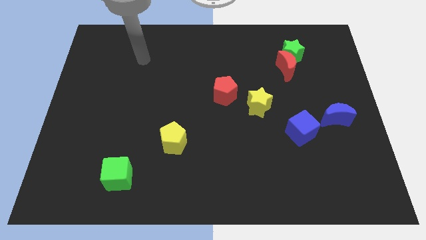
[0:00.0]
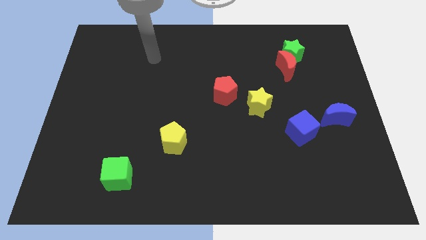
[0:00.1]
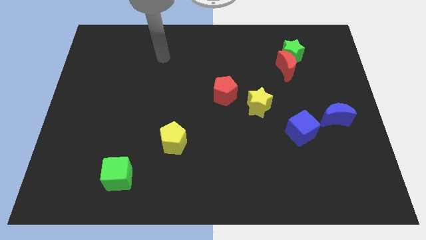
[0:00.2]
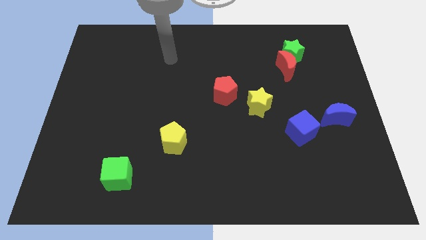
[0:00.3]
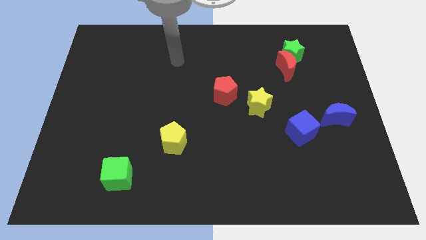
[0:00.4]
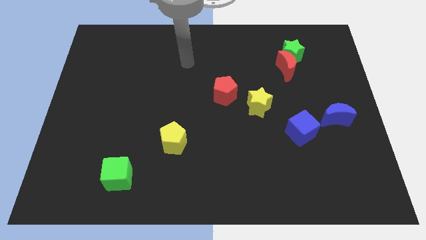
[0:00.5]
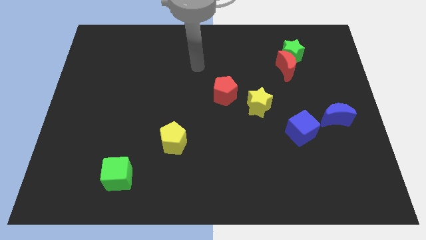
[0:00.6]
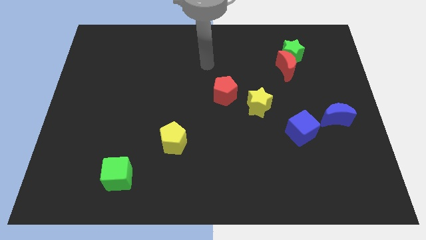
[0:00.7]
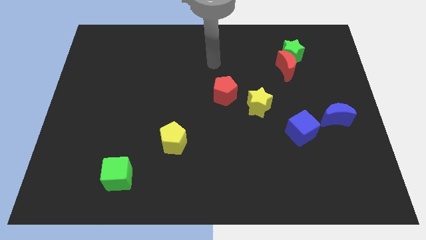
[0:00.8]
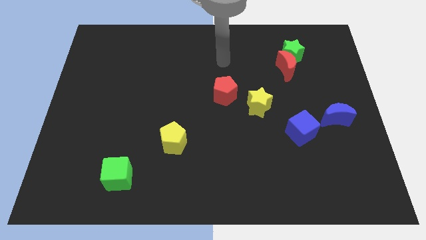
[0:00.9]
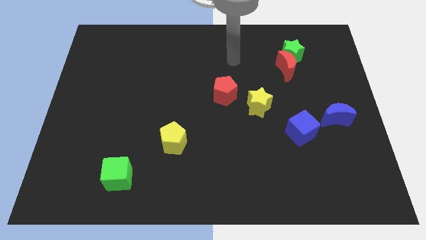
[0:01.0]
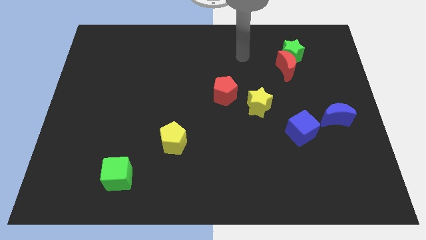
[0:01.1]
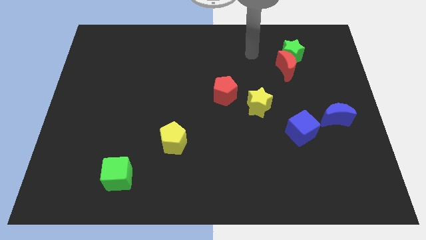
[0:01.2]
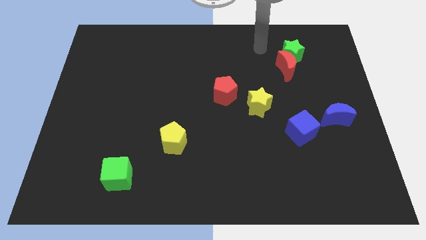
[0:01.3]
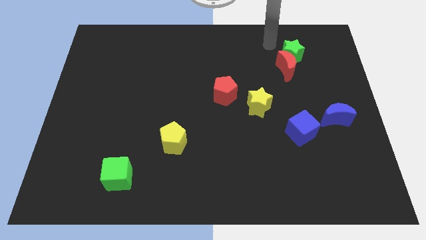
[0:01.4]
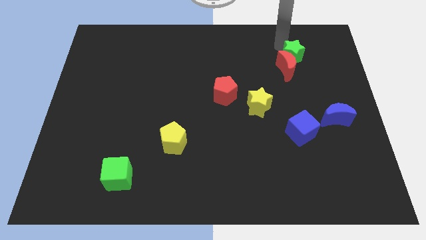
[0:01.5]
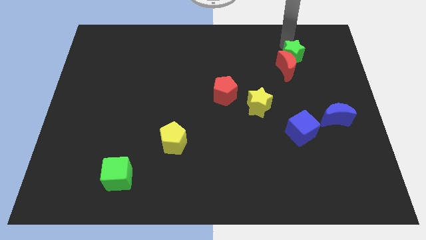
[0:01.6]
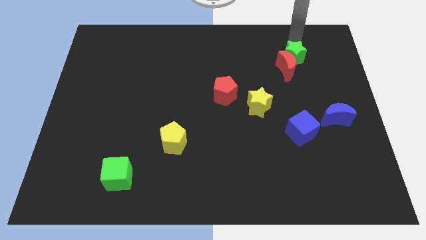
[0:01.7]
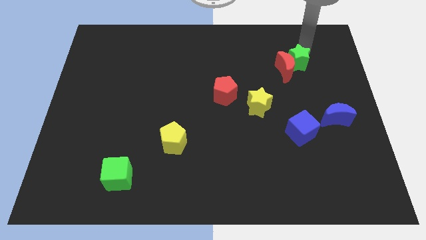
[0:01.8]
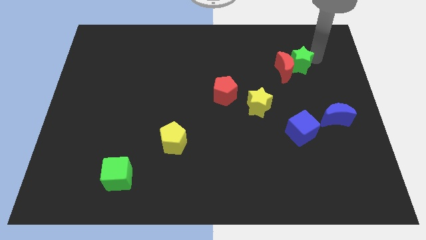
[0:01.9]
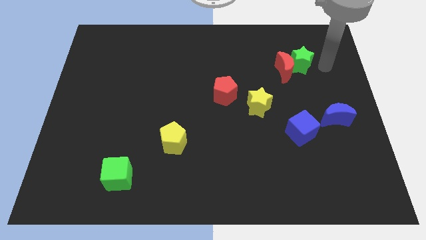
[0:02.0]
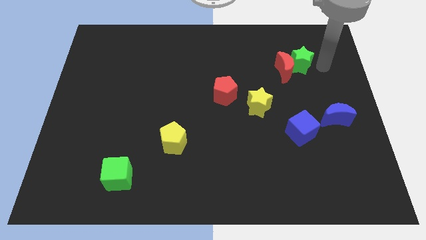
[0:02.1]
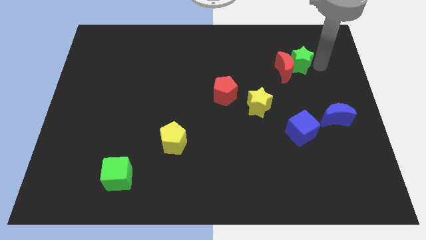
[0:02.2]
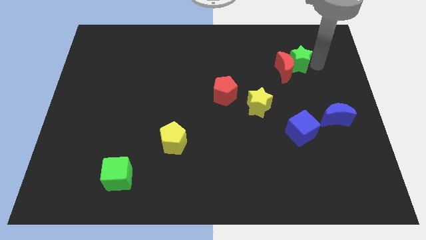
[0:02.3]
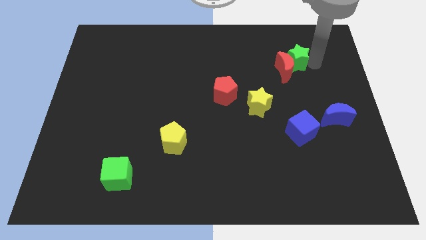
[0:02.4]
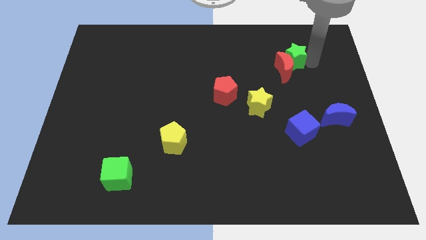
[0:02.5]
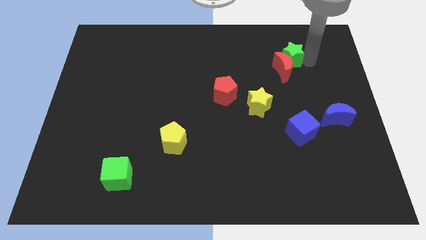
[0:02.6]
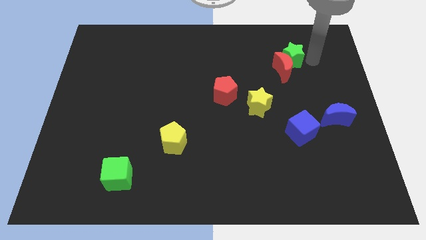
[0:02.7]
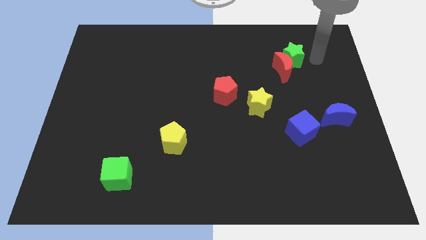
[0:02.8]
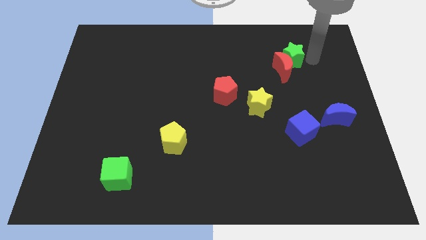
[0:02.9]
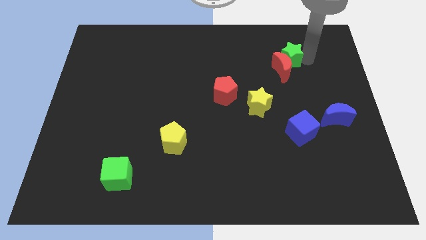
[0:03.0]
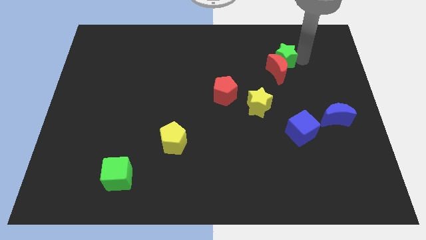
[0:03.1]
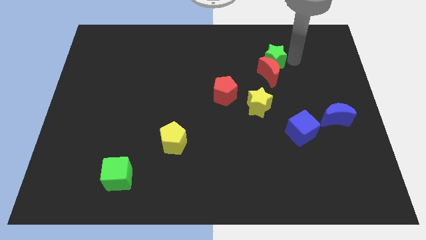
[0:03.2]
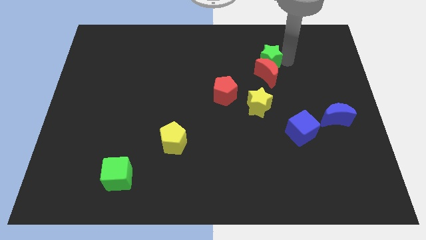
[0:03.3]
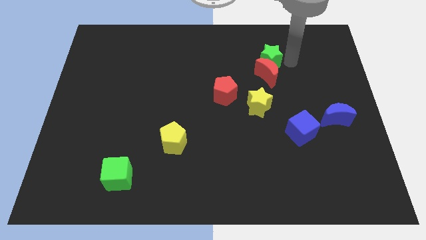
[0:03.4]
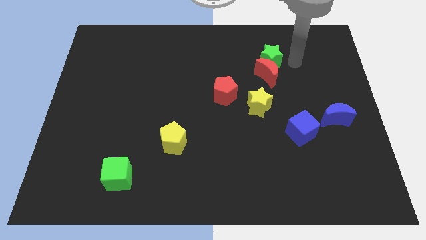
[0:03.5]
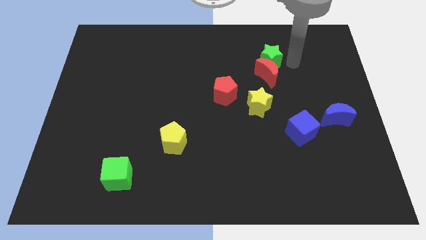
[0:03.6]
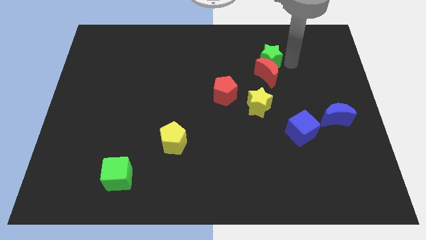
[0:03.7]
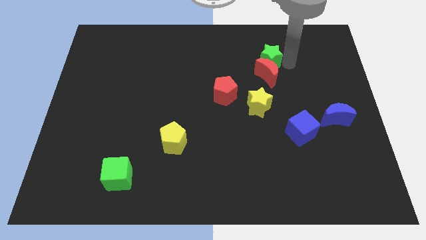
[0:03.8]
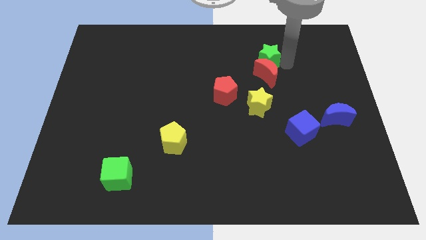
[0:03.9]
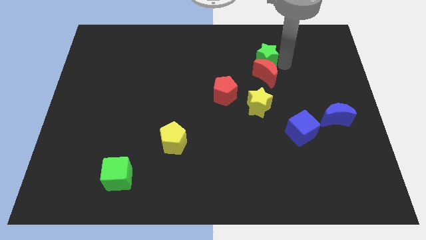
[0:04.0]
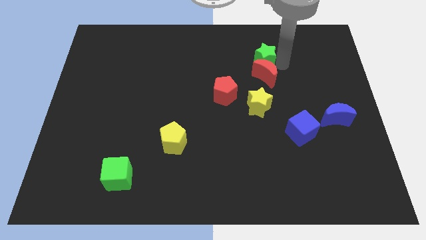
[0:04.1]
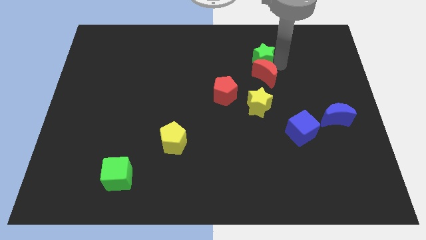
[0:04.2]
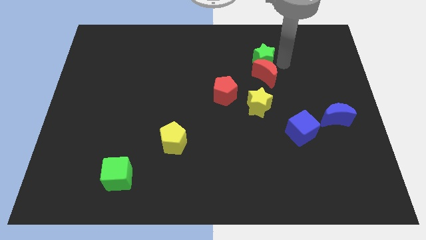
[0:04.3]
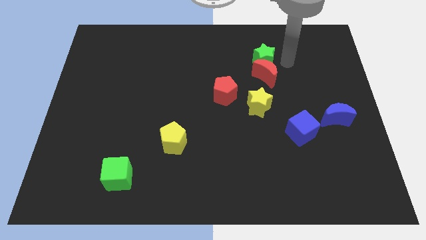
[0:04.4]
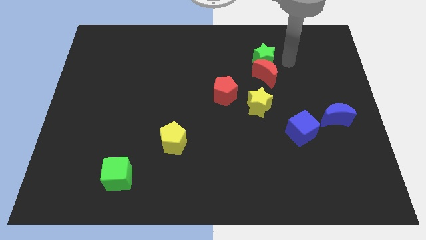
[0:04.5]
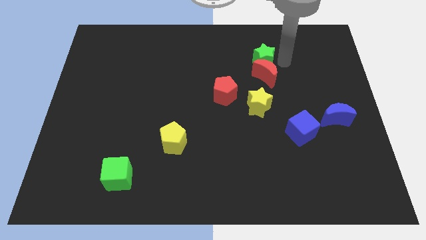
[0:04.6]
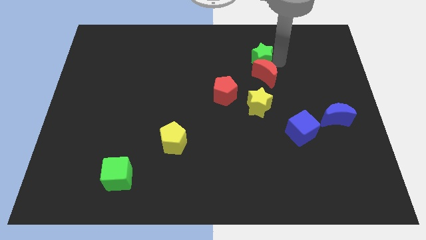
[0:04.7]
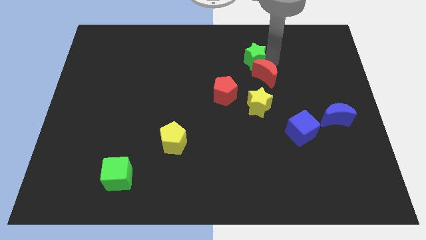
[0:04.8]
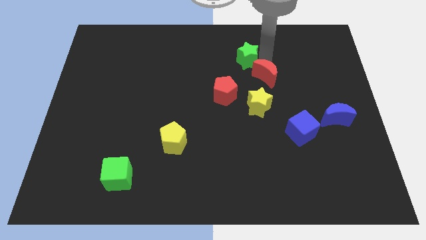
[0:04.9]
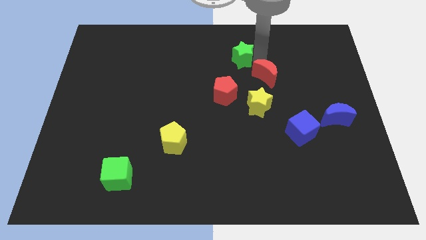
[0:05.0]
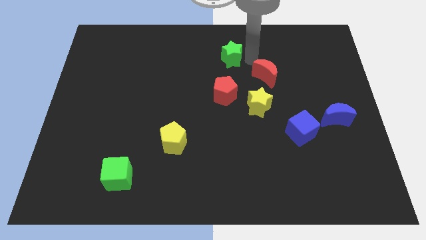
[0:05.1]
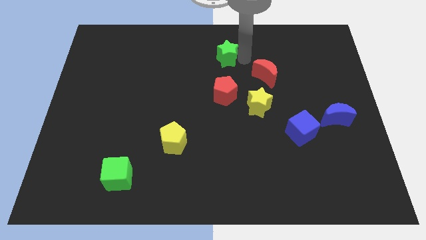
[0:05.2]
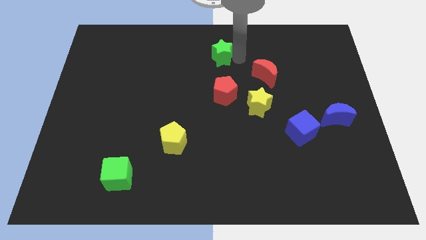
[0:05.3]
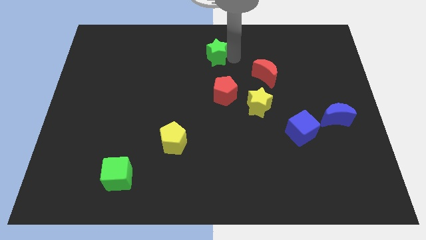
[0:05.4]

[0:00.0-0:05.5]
move the green star to the left

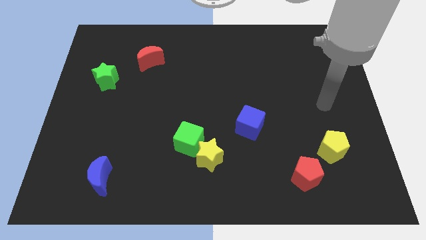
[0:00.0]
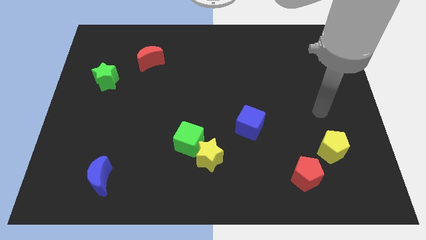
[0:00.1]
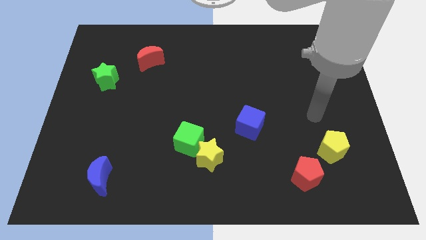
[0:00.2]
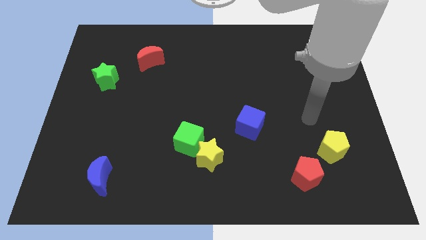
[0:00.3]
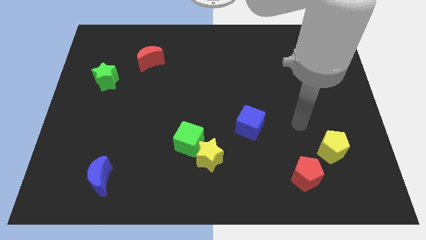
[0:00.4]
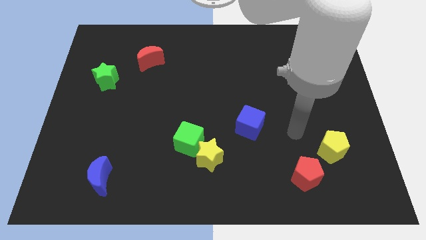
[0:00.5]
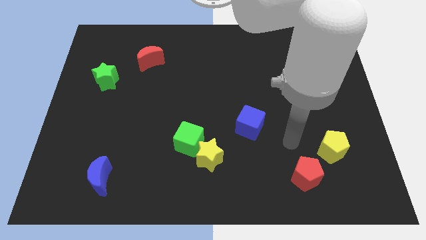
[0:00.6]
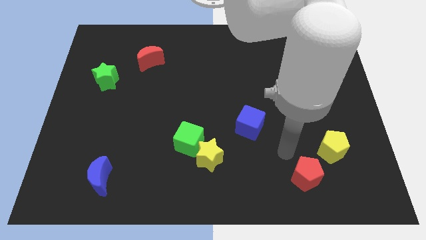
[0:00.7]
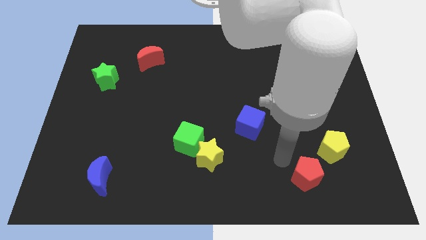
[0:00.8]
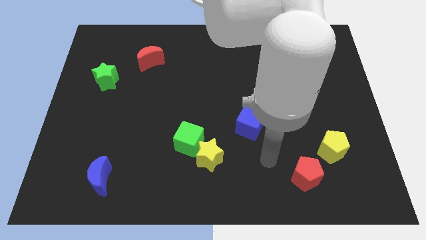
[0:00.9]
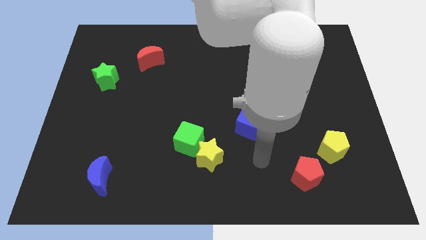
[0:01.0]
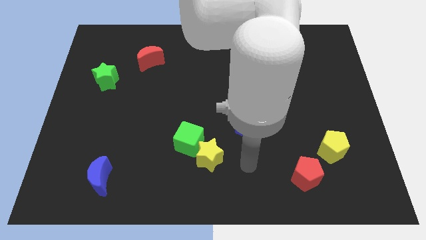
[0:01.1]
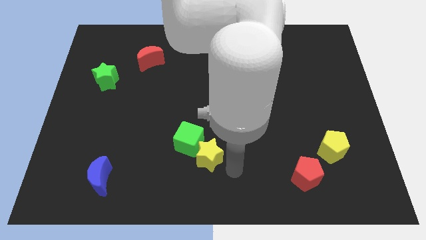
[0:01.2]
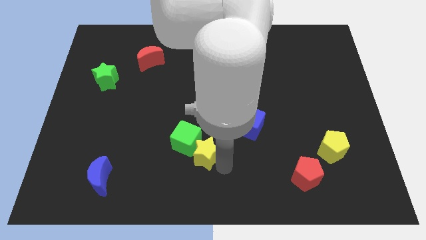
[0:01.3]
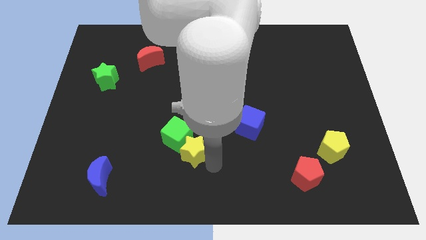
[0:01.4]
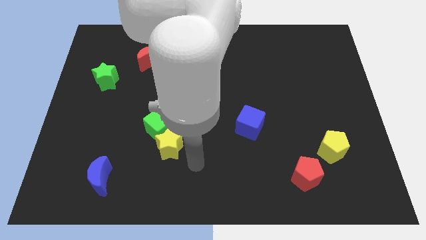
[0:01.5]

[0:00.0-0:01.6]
slightly push the green cube up and to the left

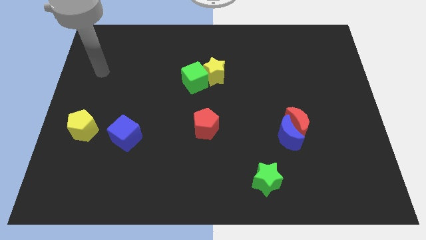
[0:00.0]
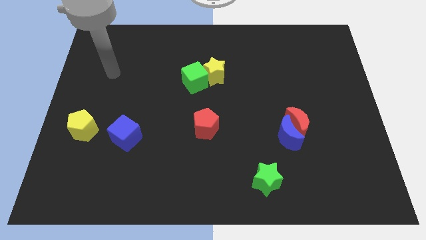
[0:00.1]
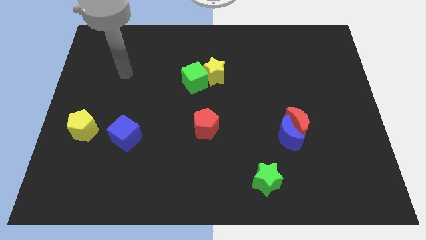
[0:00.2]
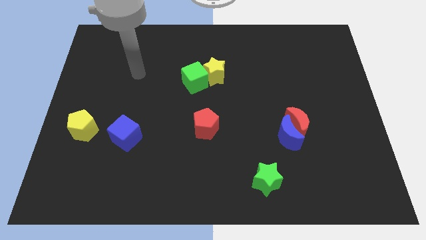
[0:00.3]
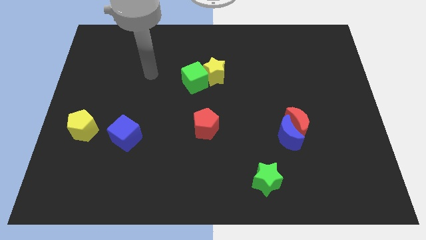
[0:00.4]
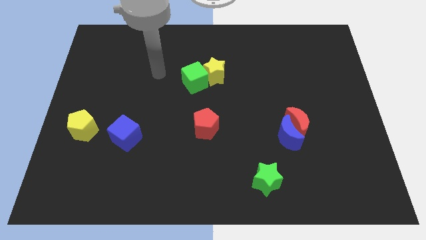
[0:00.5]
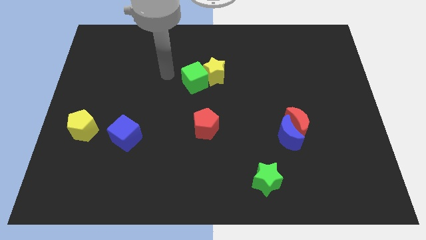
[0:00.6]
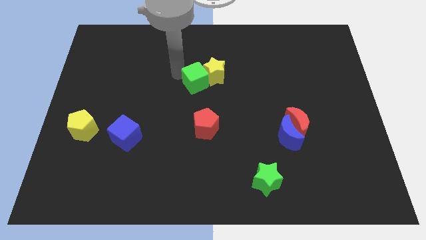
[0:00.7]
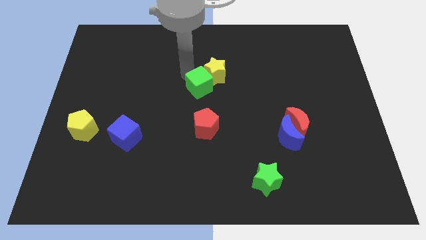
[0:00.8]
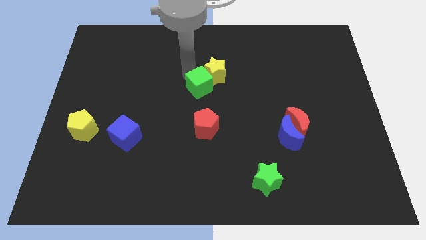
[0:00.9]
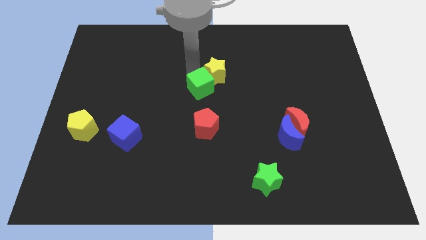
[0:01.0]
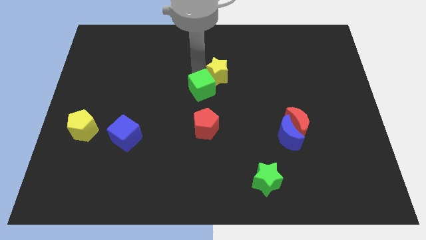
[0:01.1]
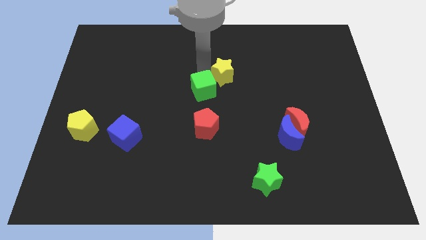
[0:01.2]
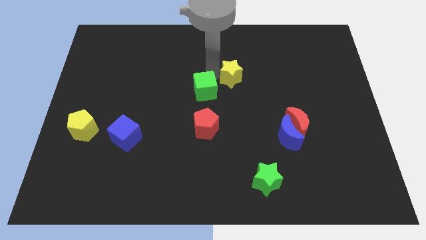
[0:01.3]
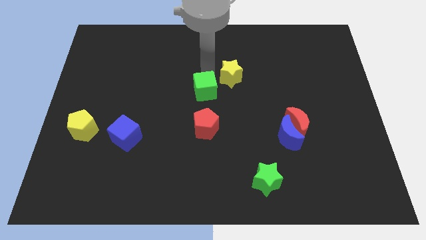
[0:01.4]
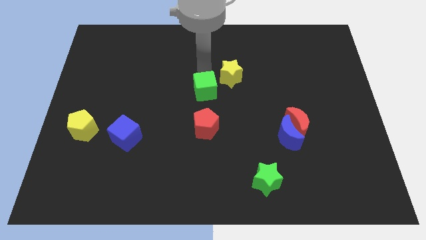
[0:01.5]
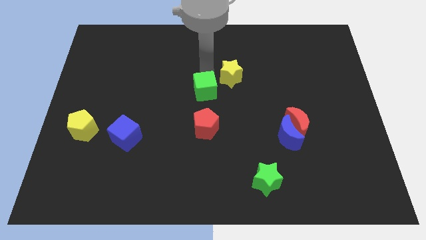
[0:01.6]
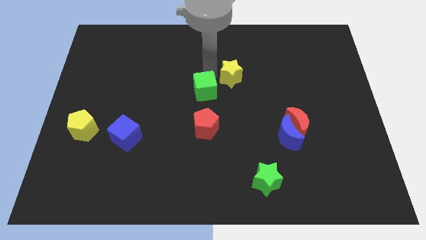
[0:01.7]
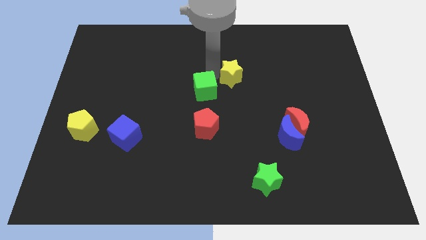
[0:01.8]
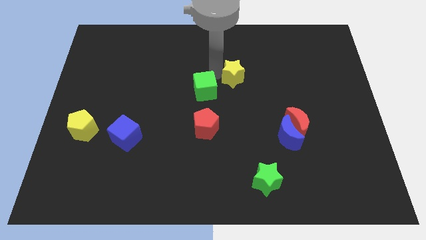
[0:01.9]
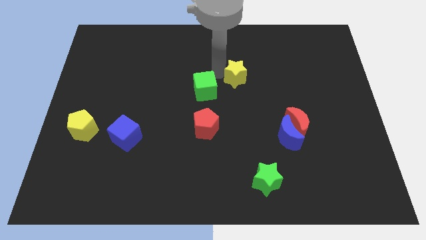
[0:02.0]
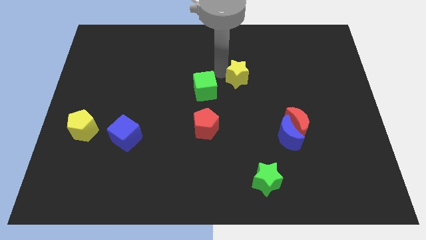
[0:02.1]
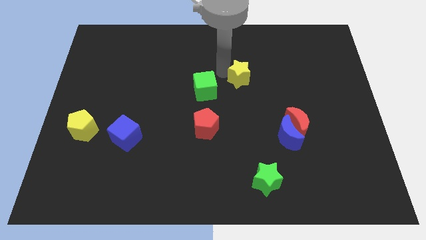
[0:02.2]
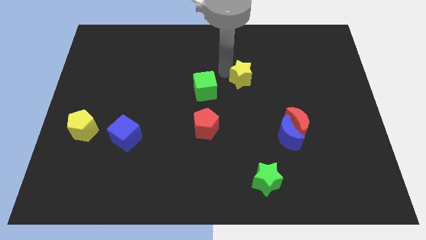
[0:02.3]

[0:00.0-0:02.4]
slightly slide the yellow star to the right
